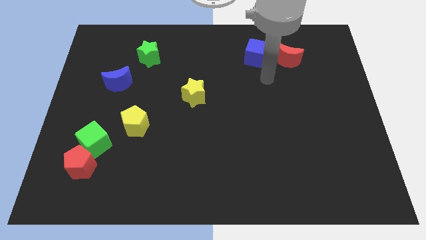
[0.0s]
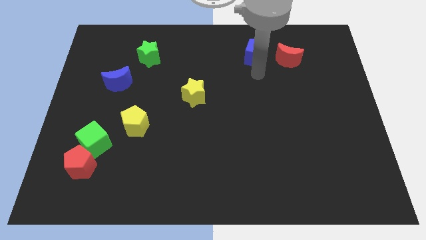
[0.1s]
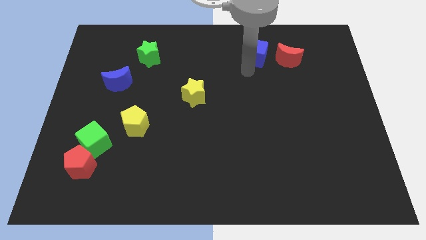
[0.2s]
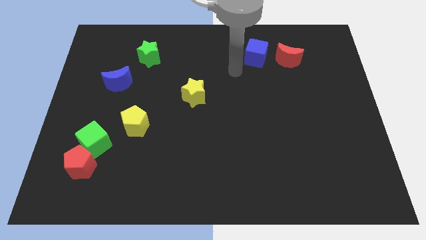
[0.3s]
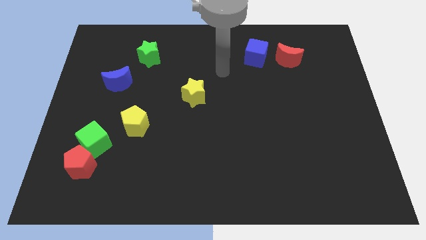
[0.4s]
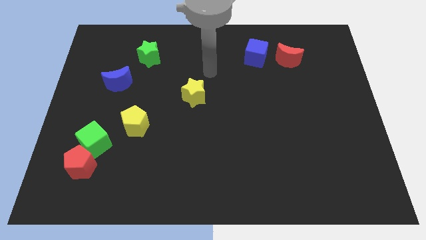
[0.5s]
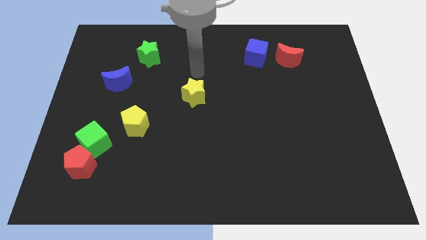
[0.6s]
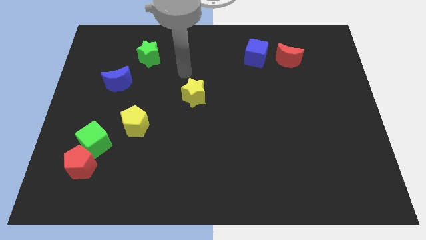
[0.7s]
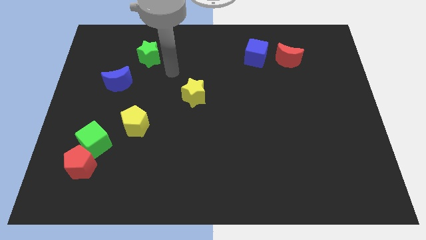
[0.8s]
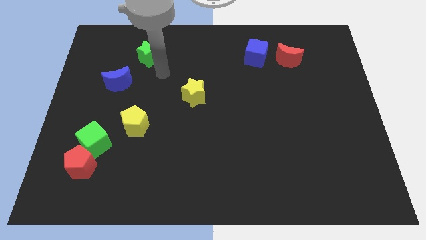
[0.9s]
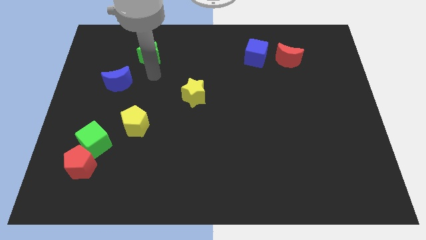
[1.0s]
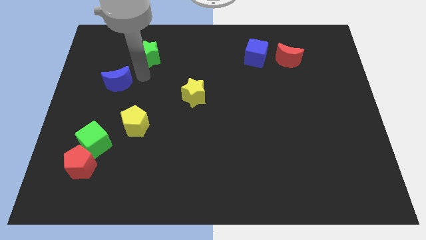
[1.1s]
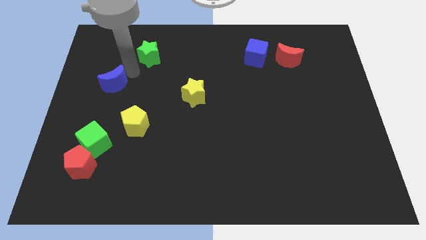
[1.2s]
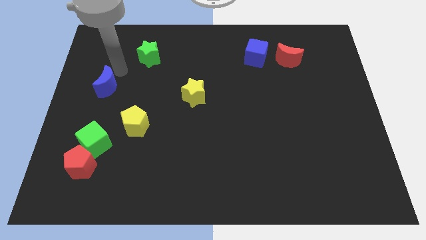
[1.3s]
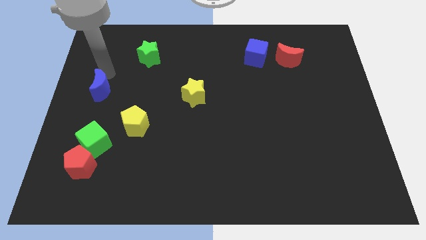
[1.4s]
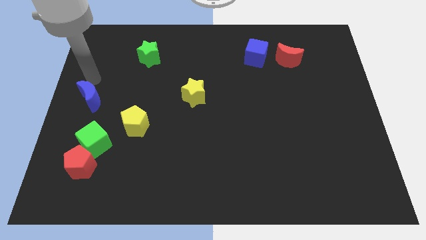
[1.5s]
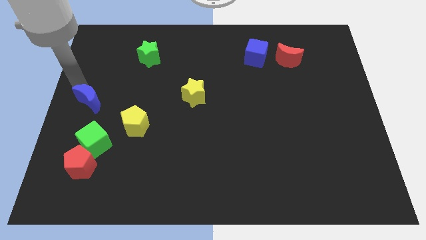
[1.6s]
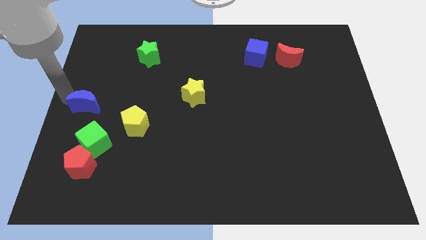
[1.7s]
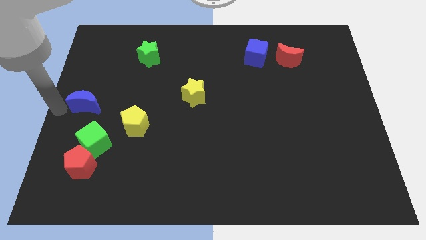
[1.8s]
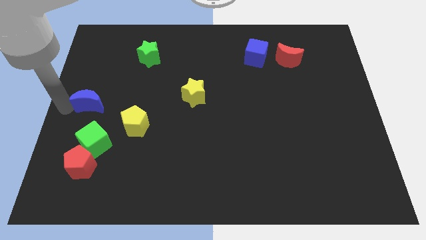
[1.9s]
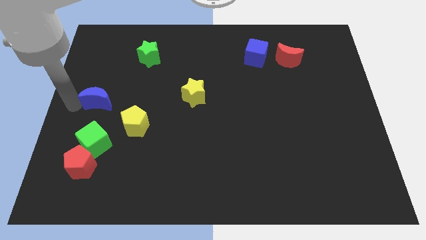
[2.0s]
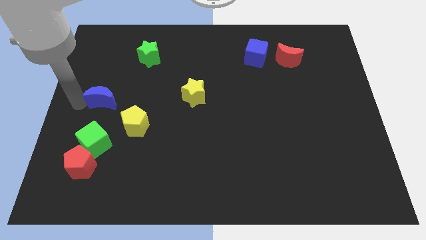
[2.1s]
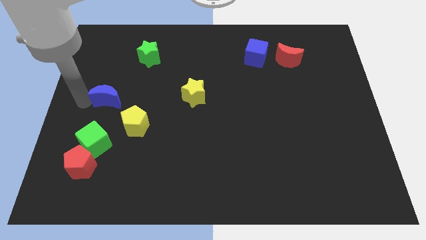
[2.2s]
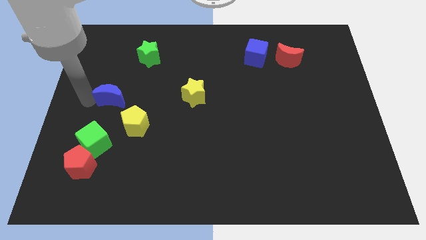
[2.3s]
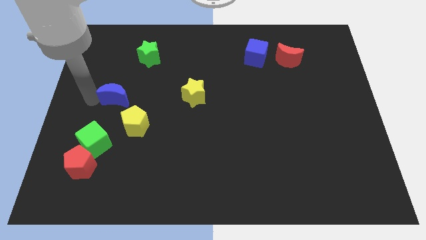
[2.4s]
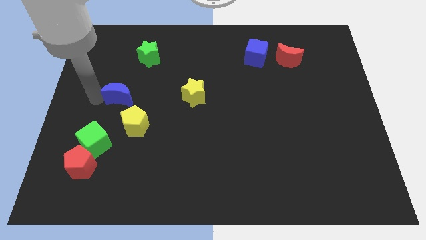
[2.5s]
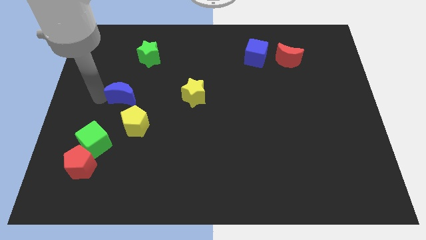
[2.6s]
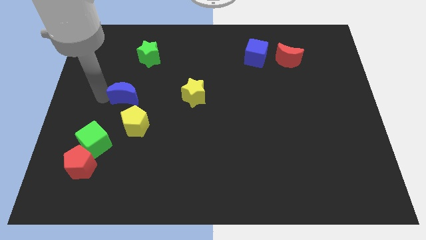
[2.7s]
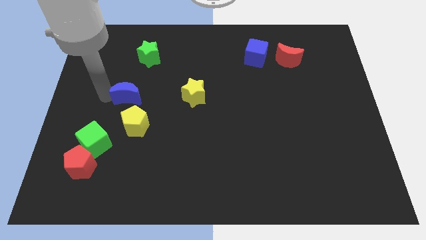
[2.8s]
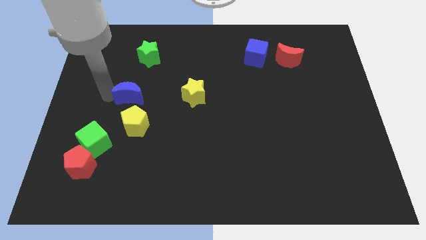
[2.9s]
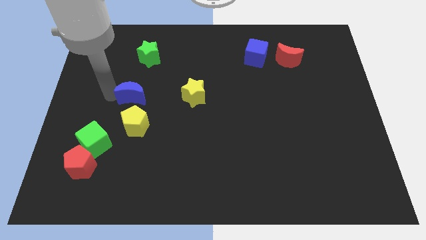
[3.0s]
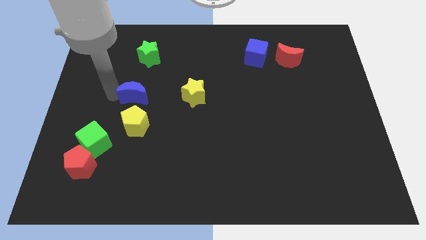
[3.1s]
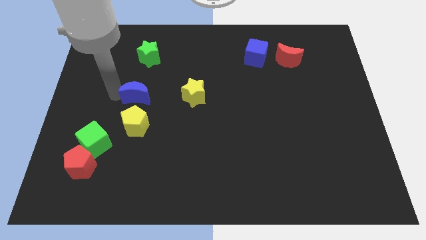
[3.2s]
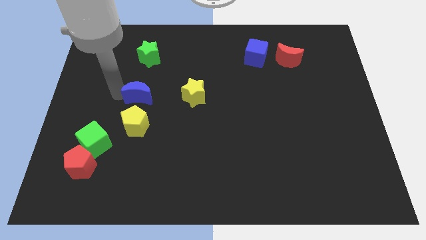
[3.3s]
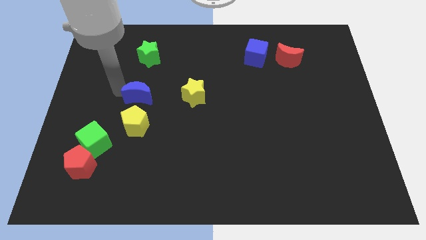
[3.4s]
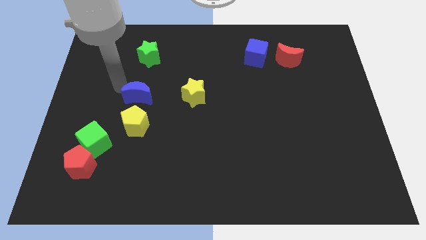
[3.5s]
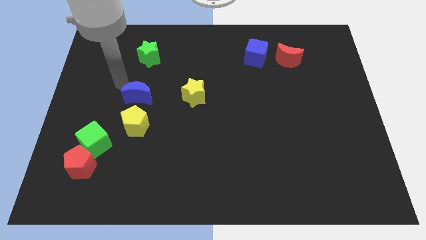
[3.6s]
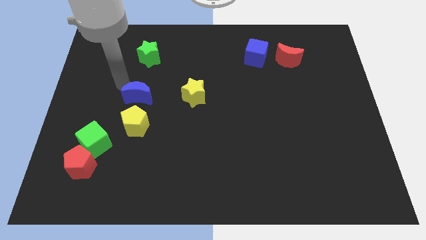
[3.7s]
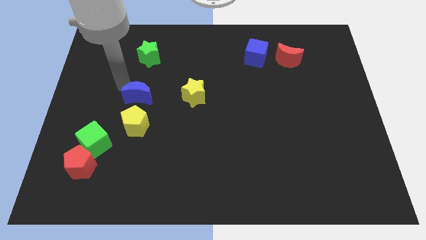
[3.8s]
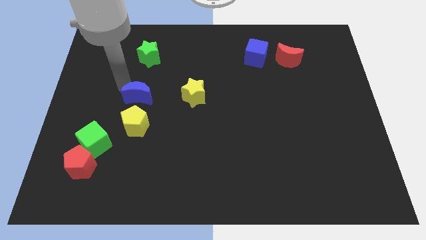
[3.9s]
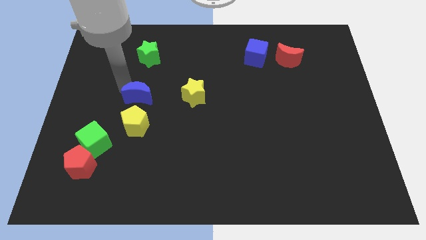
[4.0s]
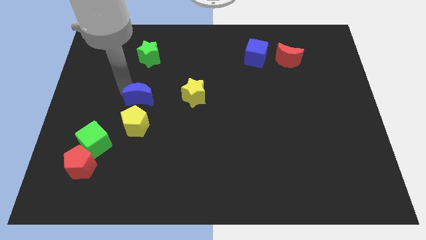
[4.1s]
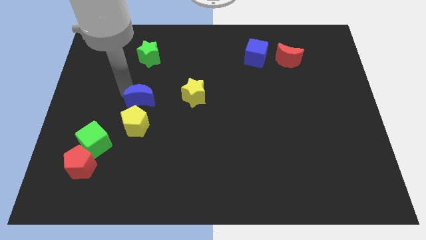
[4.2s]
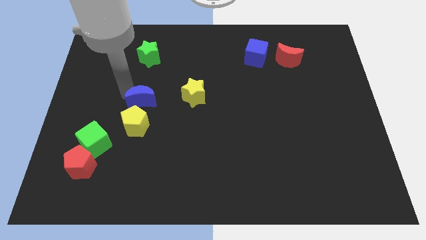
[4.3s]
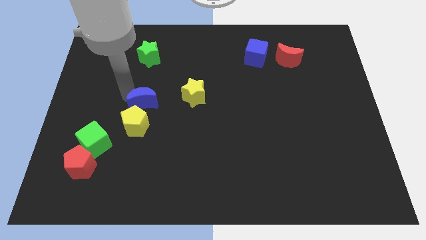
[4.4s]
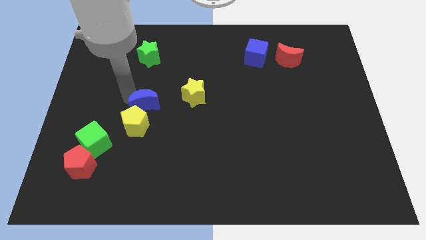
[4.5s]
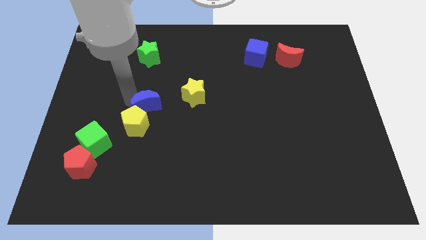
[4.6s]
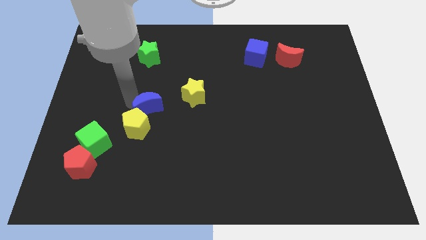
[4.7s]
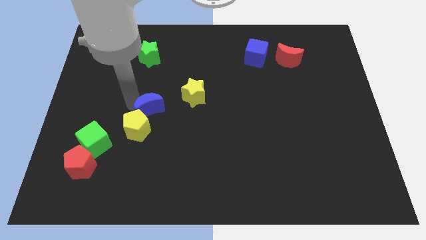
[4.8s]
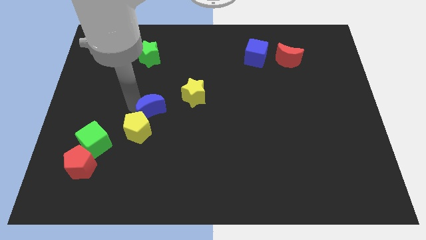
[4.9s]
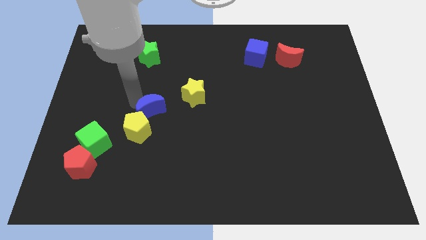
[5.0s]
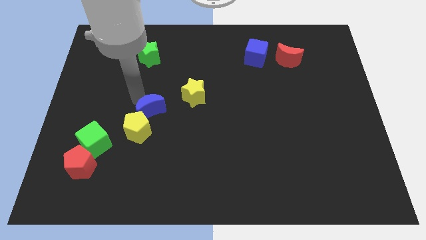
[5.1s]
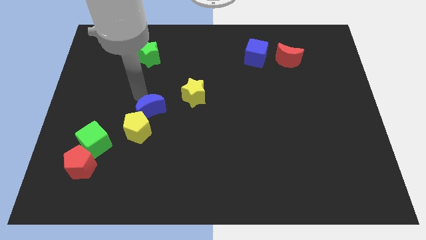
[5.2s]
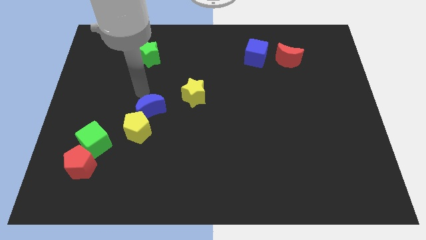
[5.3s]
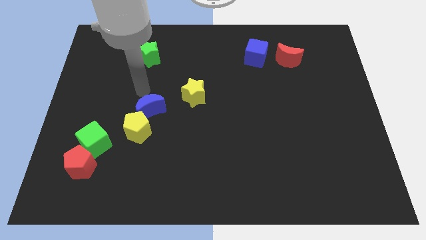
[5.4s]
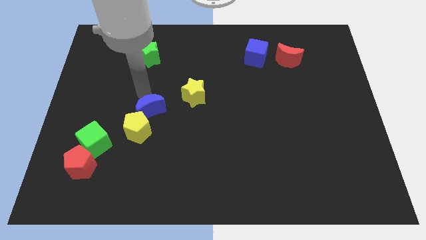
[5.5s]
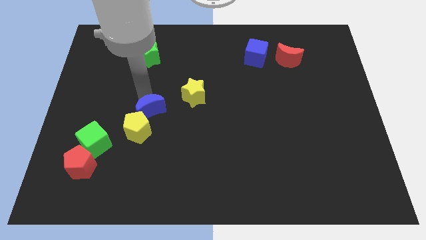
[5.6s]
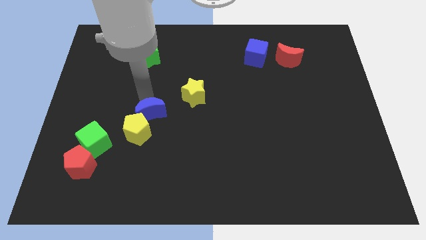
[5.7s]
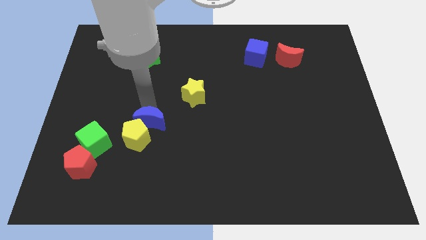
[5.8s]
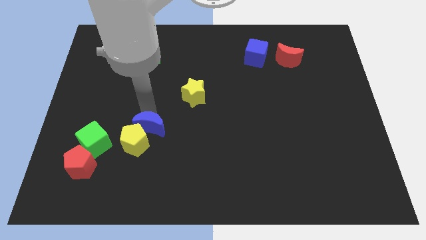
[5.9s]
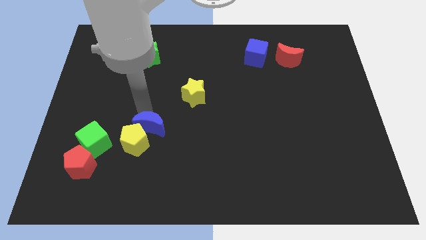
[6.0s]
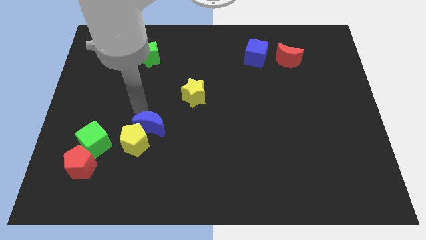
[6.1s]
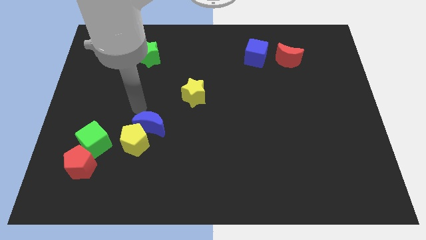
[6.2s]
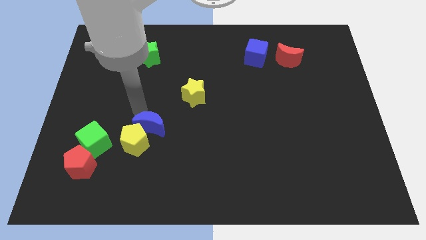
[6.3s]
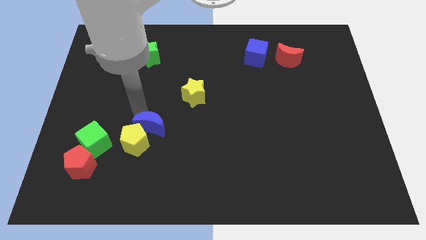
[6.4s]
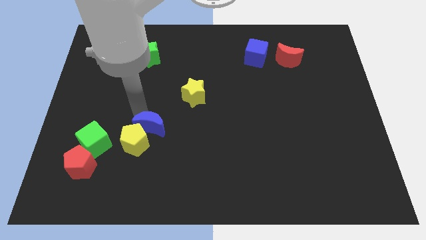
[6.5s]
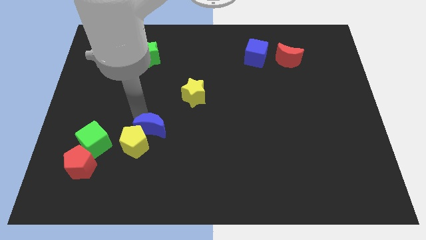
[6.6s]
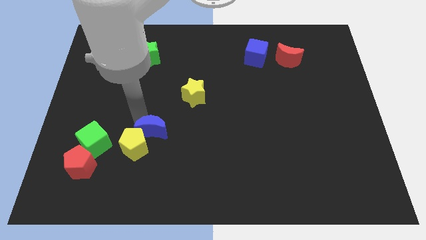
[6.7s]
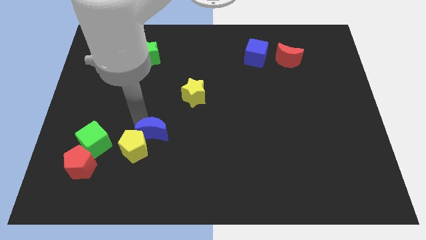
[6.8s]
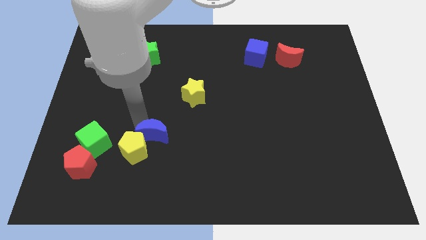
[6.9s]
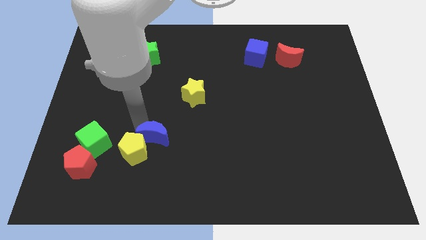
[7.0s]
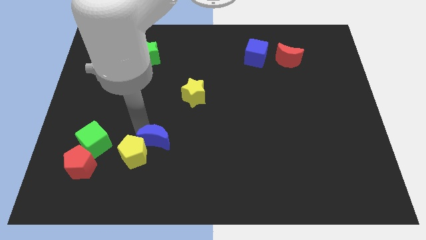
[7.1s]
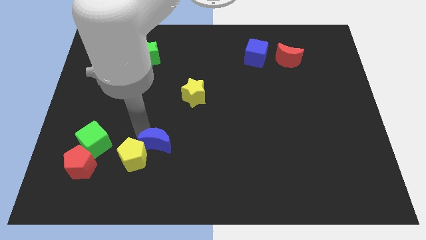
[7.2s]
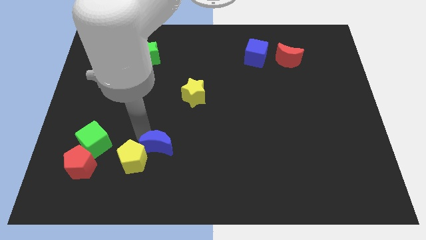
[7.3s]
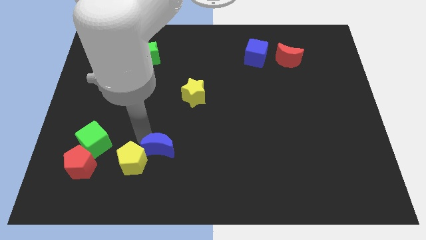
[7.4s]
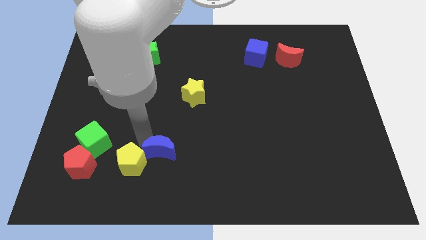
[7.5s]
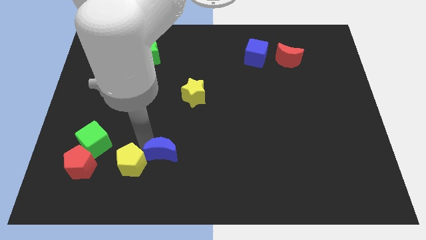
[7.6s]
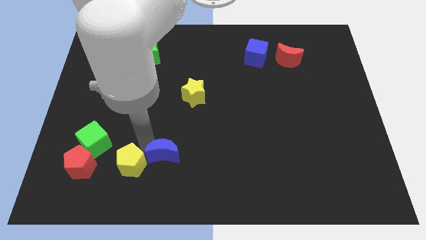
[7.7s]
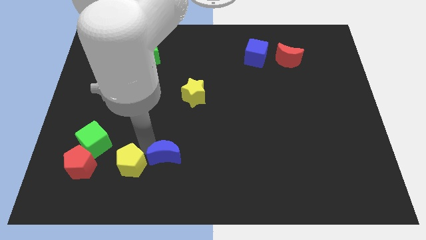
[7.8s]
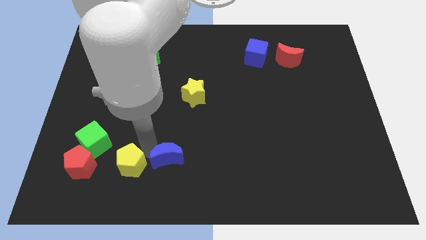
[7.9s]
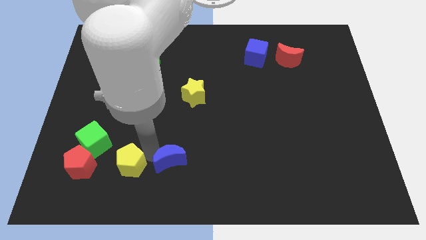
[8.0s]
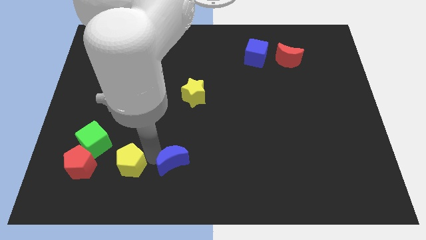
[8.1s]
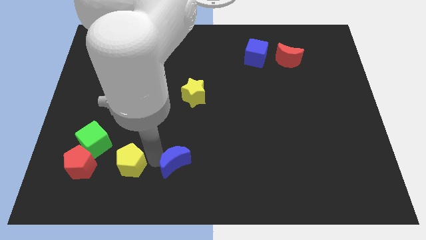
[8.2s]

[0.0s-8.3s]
move the blue moon to the bottom
